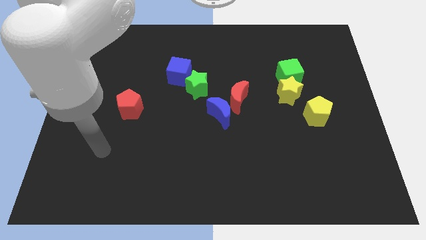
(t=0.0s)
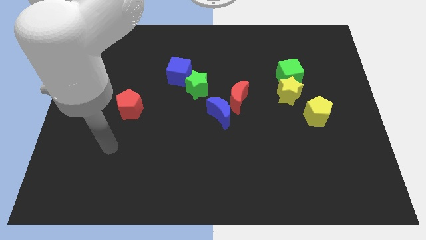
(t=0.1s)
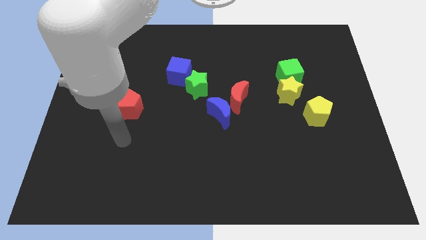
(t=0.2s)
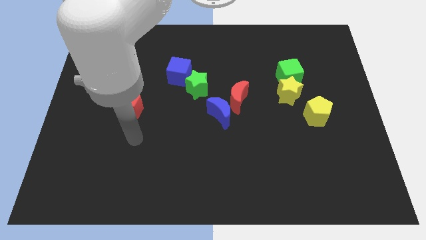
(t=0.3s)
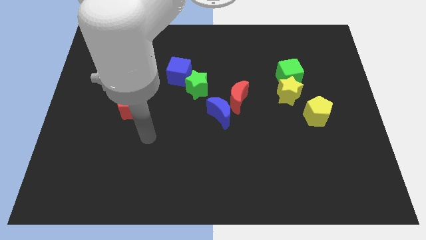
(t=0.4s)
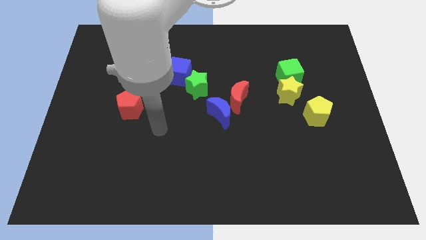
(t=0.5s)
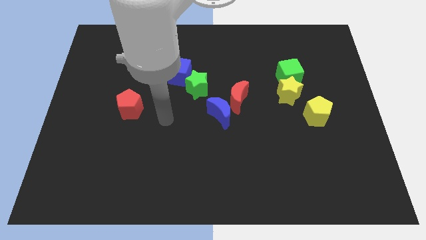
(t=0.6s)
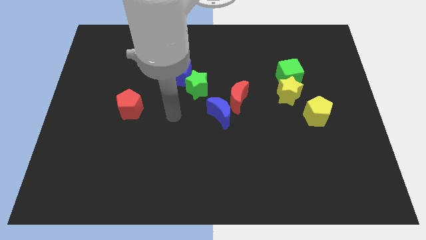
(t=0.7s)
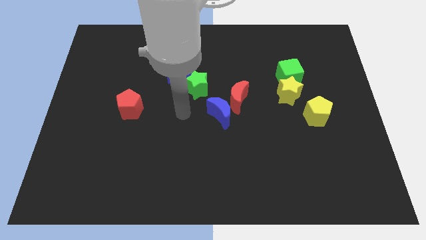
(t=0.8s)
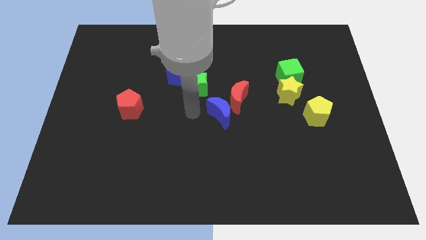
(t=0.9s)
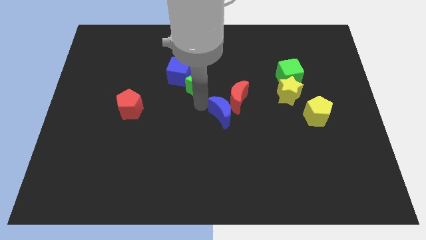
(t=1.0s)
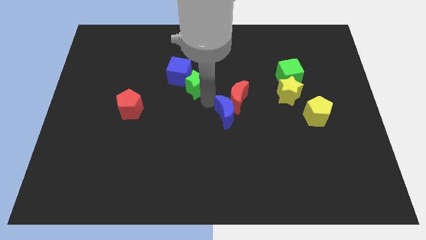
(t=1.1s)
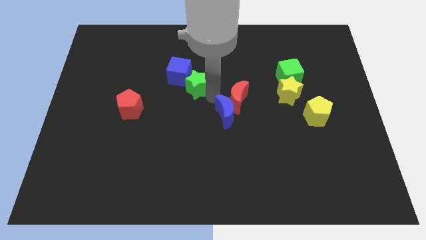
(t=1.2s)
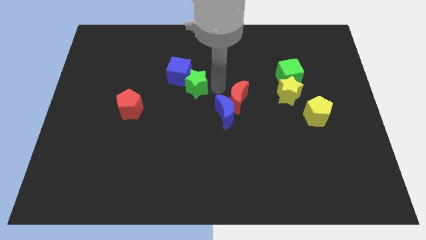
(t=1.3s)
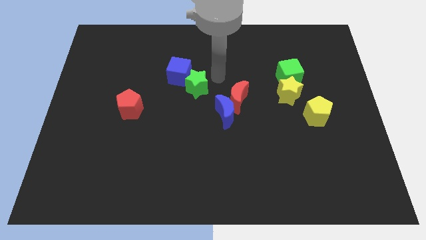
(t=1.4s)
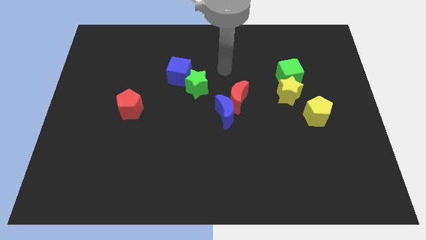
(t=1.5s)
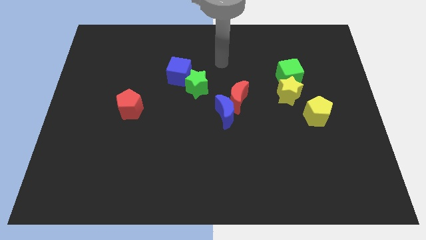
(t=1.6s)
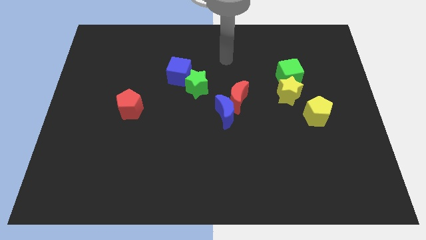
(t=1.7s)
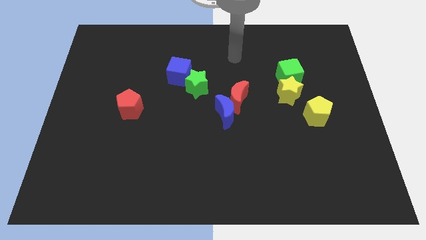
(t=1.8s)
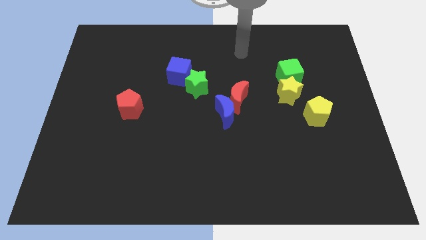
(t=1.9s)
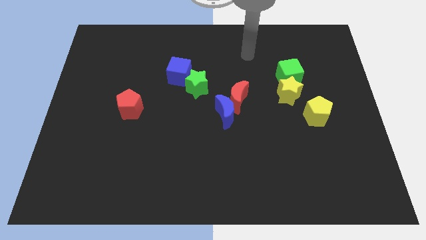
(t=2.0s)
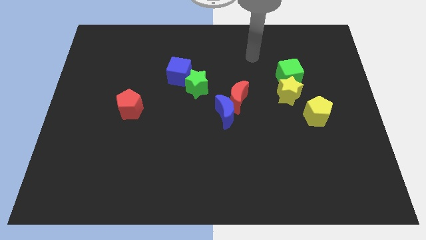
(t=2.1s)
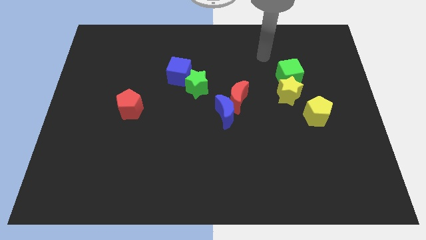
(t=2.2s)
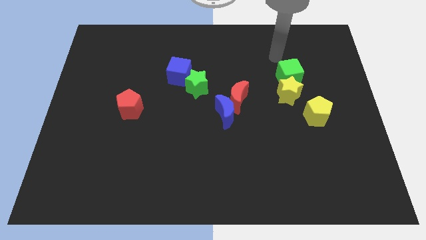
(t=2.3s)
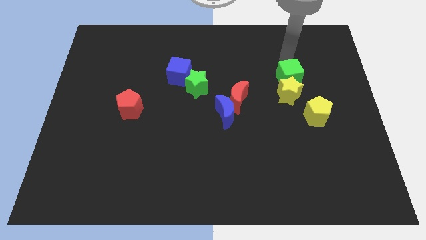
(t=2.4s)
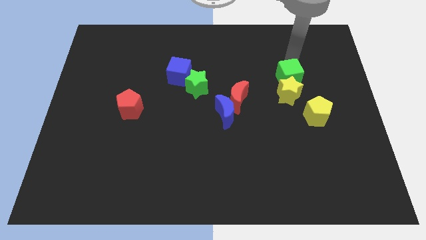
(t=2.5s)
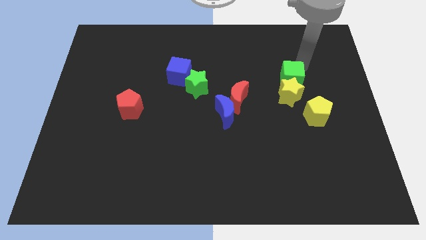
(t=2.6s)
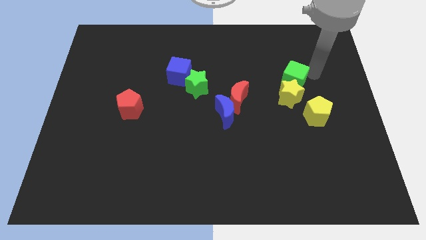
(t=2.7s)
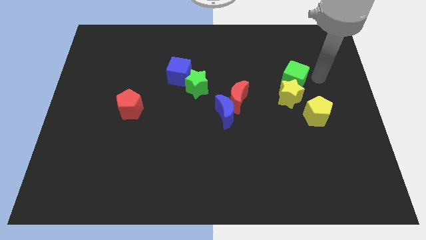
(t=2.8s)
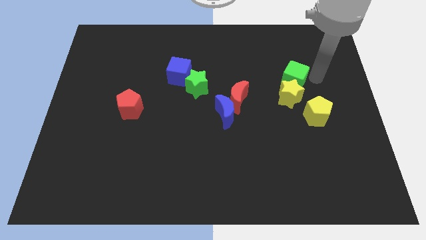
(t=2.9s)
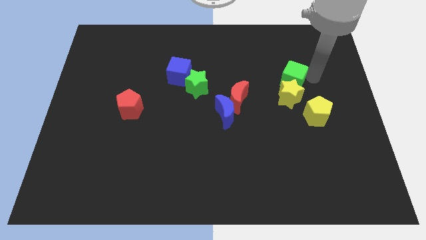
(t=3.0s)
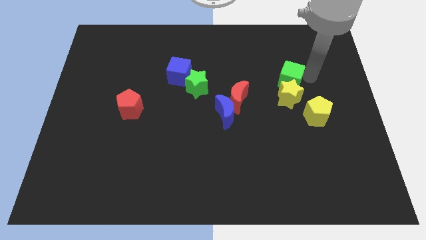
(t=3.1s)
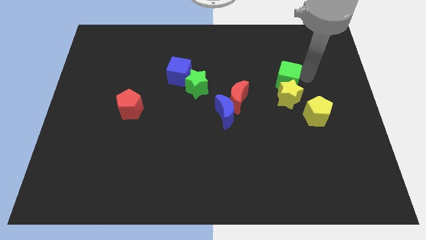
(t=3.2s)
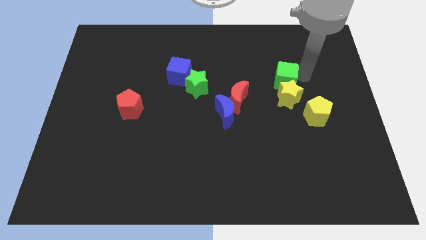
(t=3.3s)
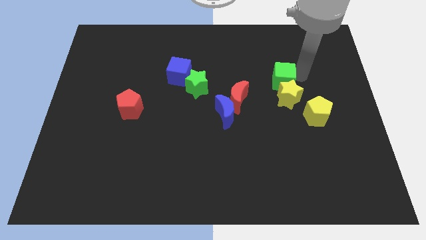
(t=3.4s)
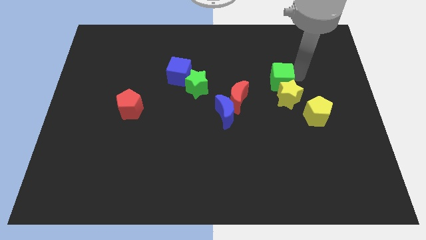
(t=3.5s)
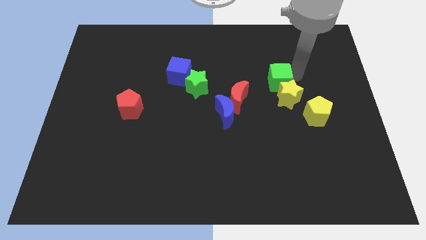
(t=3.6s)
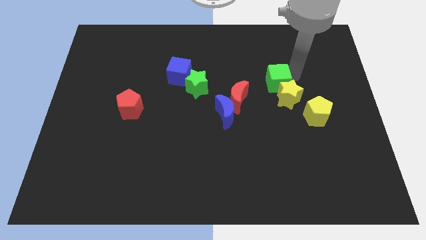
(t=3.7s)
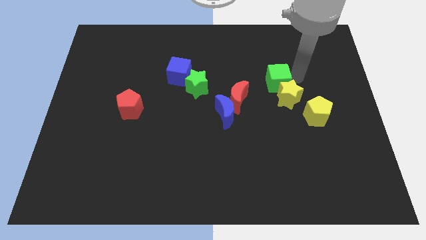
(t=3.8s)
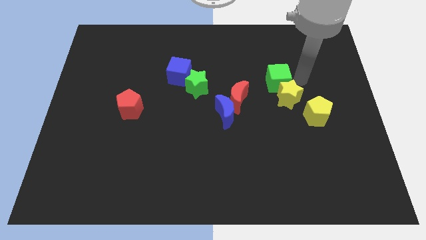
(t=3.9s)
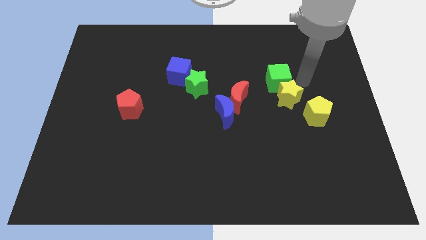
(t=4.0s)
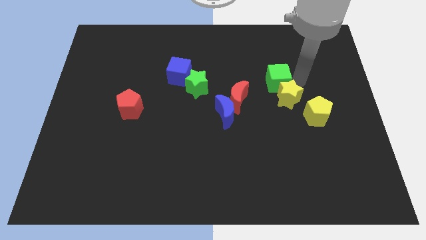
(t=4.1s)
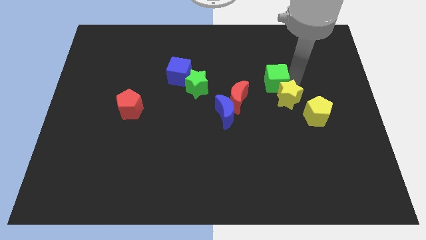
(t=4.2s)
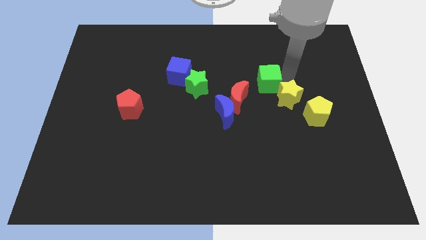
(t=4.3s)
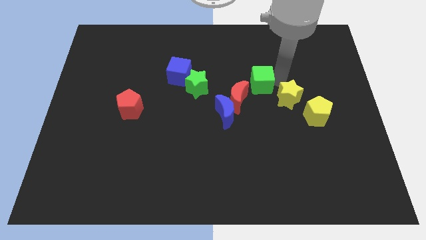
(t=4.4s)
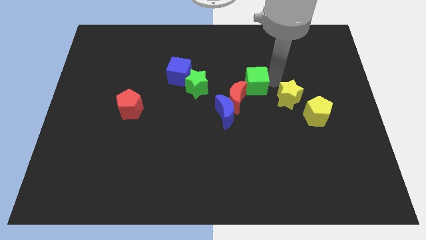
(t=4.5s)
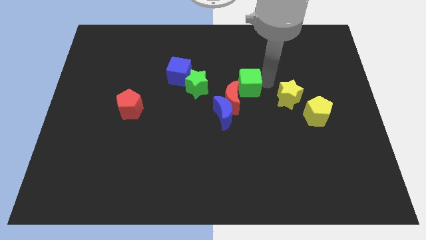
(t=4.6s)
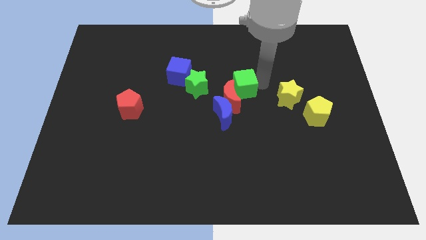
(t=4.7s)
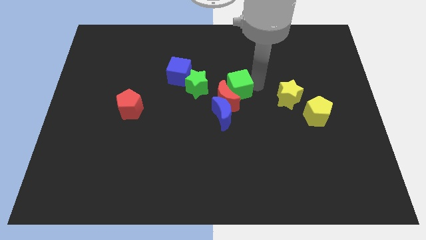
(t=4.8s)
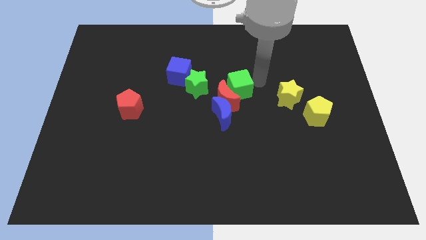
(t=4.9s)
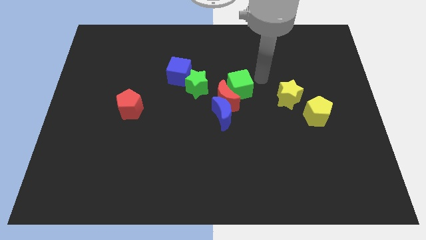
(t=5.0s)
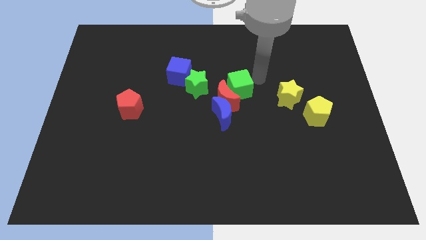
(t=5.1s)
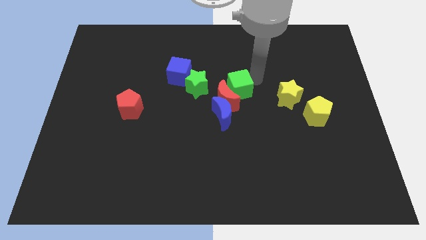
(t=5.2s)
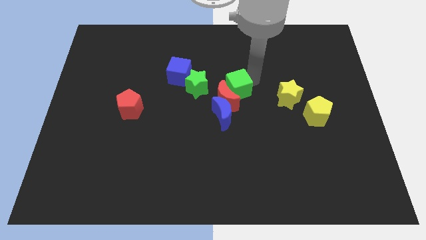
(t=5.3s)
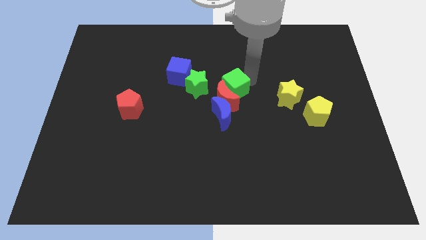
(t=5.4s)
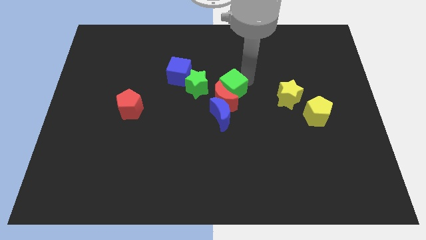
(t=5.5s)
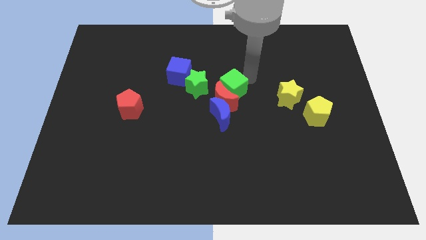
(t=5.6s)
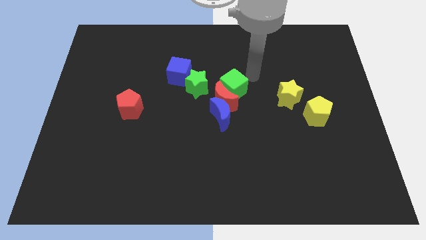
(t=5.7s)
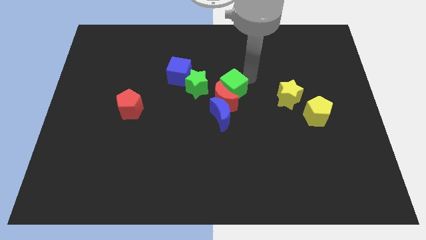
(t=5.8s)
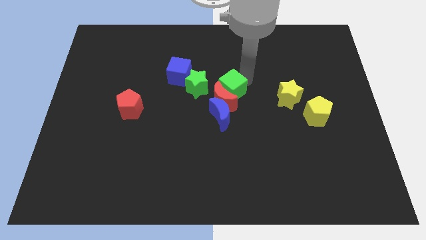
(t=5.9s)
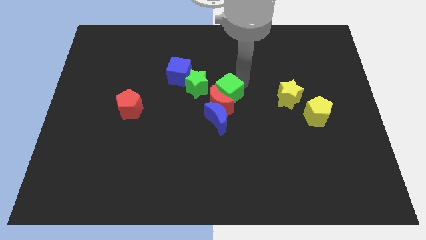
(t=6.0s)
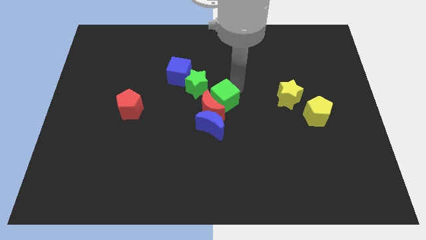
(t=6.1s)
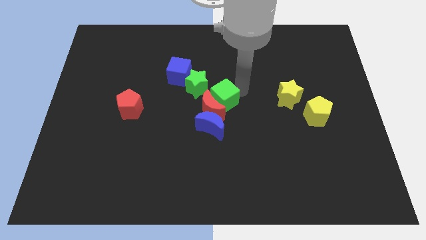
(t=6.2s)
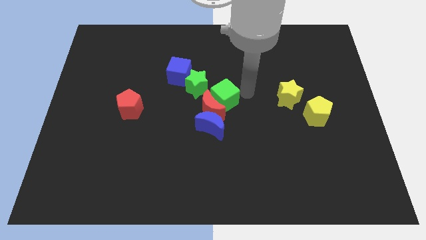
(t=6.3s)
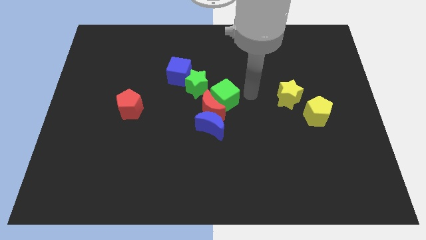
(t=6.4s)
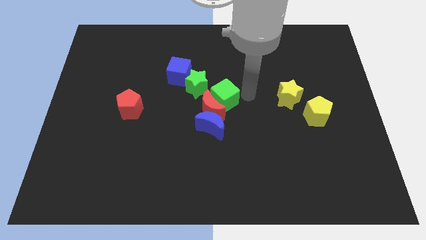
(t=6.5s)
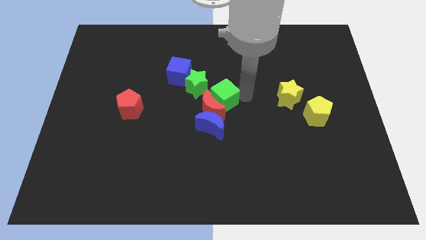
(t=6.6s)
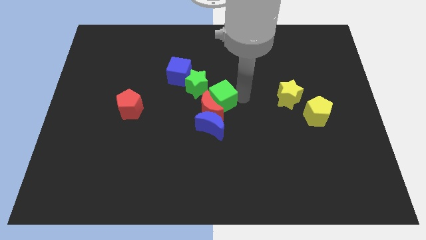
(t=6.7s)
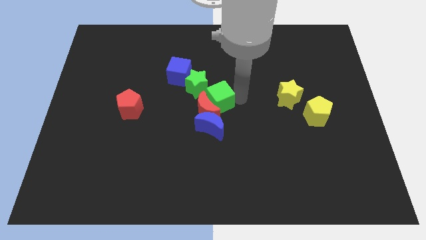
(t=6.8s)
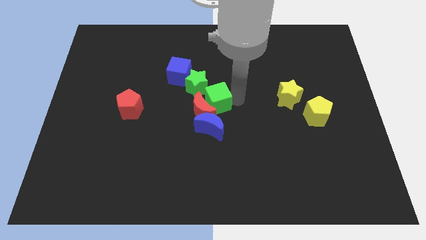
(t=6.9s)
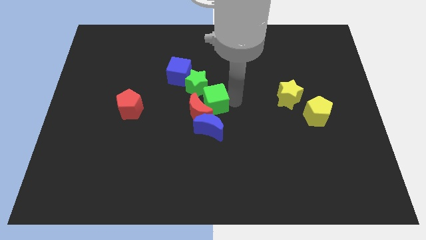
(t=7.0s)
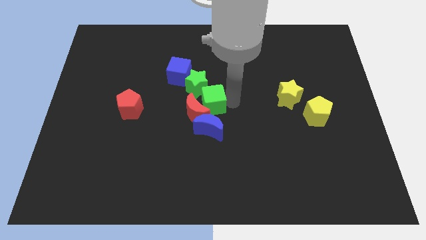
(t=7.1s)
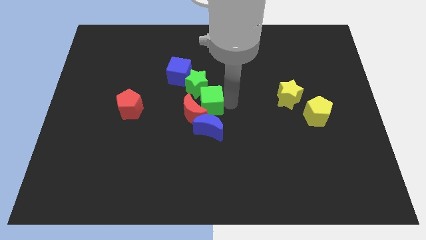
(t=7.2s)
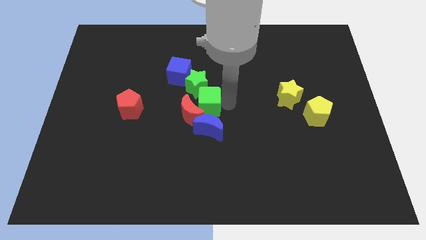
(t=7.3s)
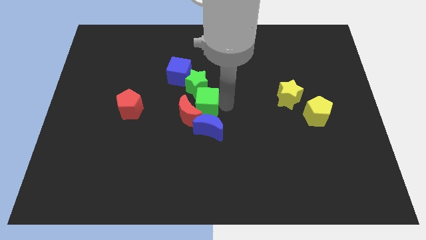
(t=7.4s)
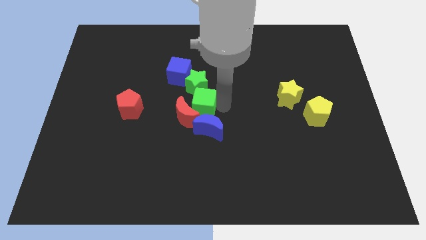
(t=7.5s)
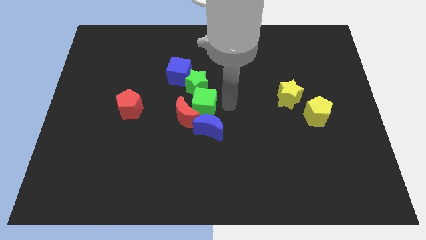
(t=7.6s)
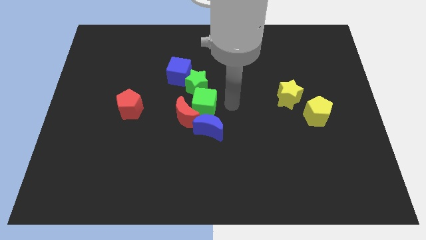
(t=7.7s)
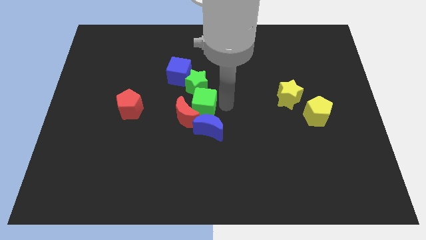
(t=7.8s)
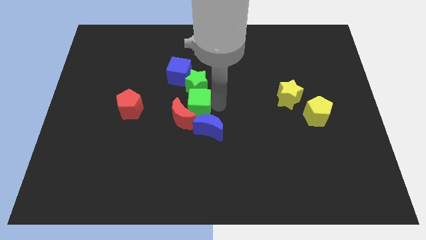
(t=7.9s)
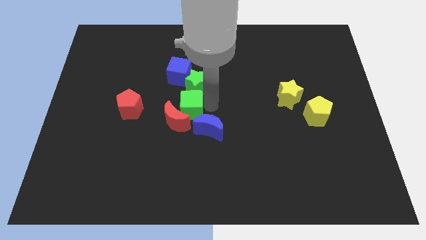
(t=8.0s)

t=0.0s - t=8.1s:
slide the green cube below the blue cube

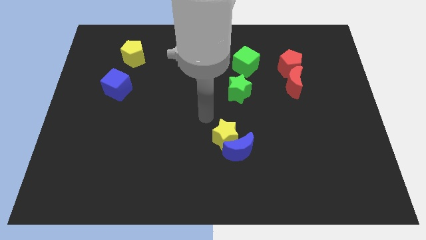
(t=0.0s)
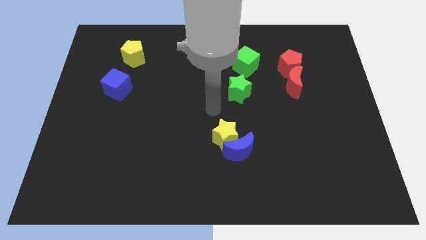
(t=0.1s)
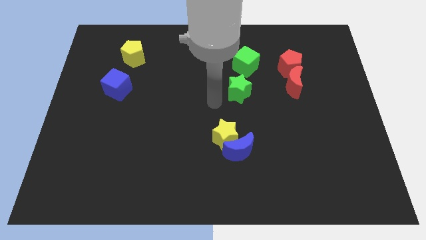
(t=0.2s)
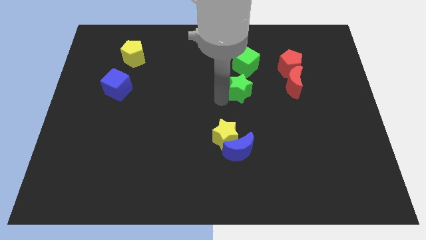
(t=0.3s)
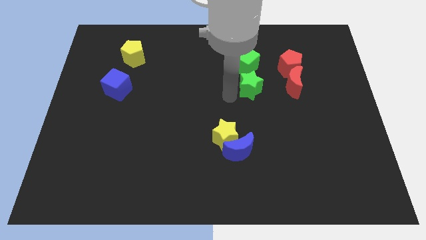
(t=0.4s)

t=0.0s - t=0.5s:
put the green star to the bottom left side of the red pentagon
